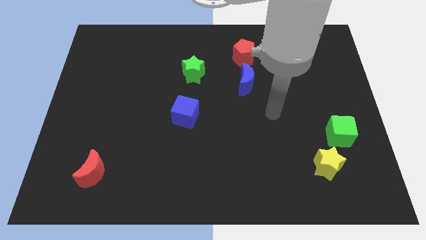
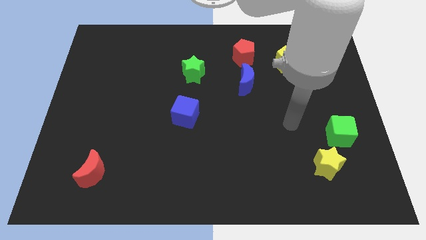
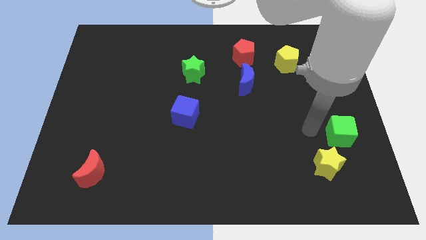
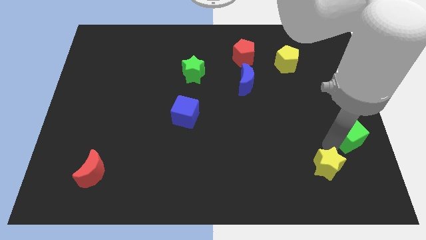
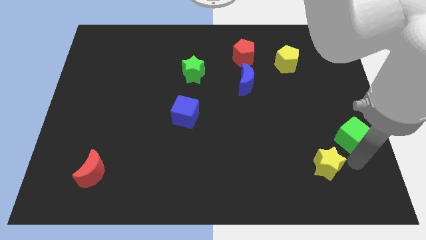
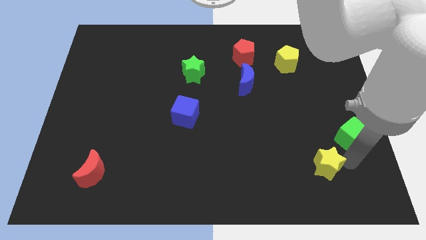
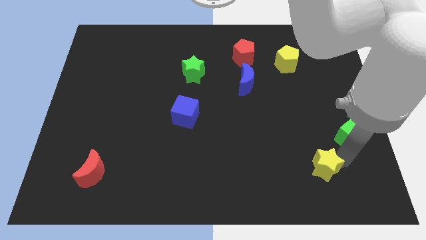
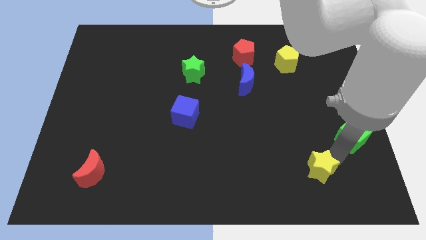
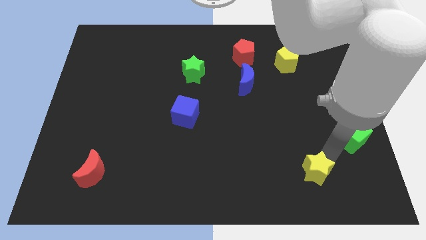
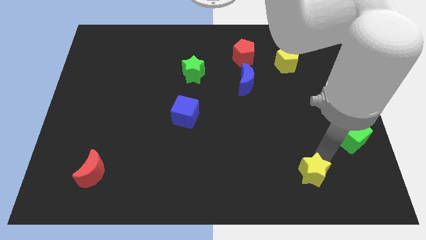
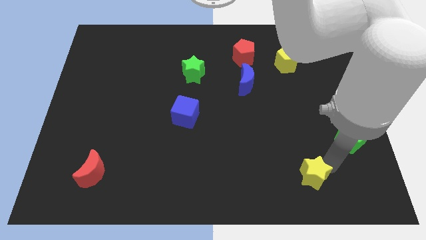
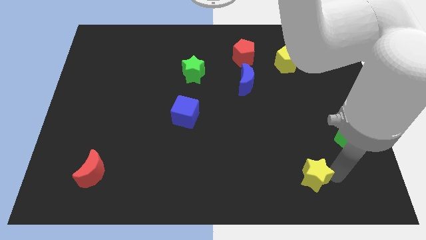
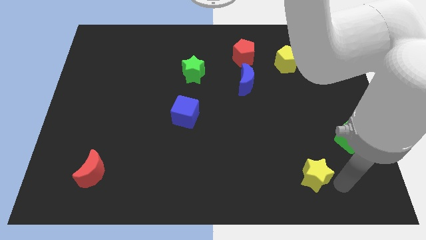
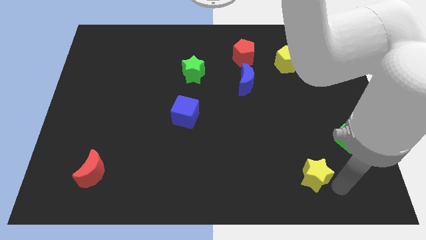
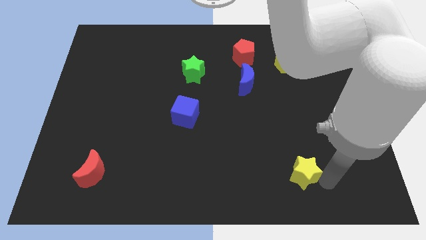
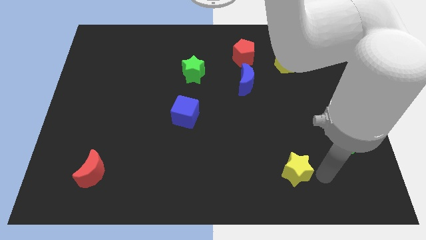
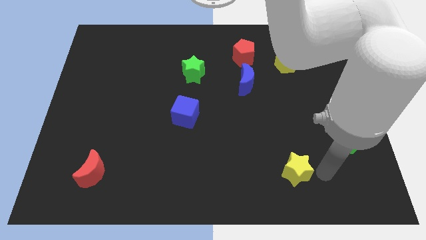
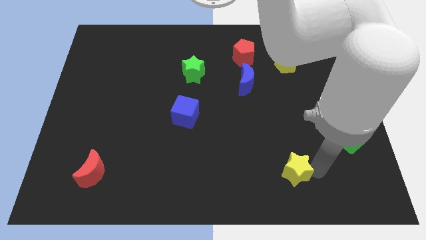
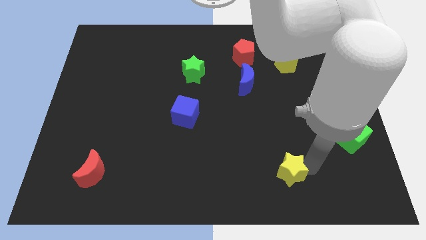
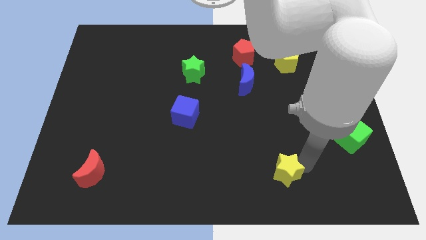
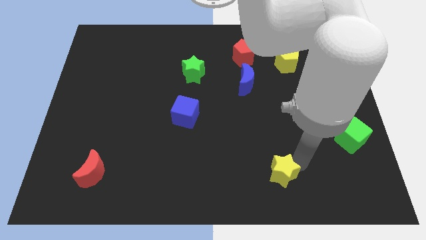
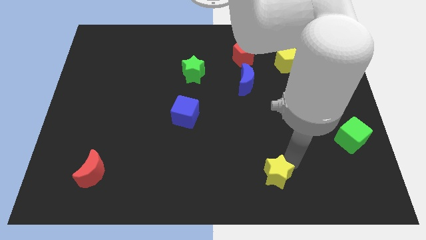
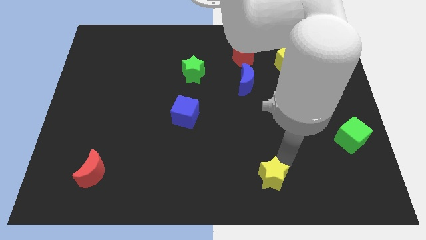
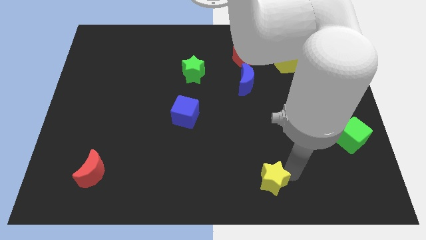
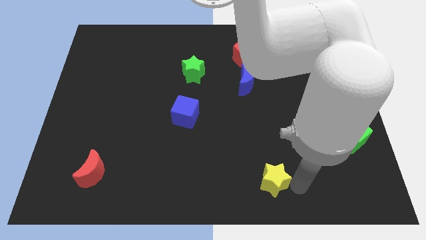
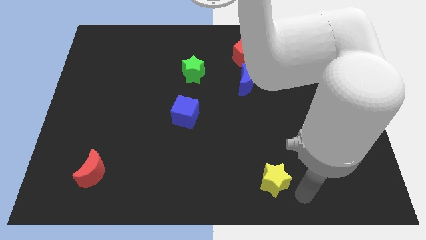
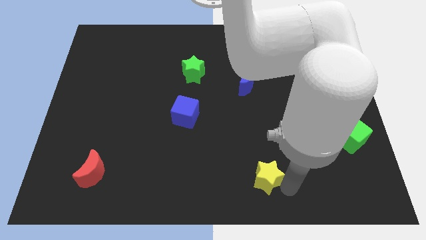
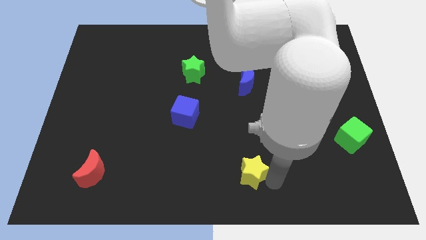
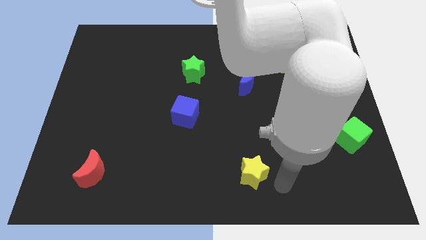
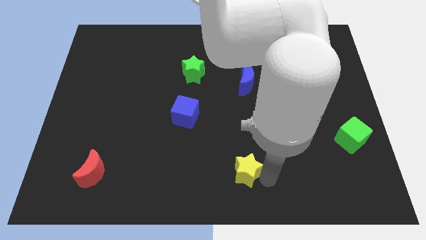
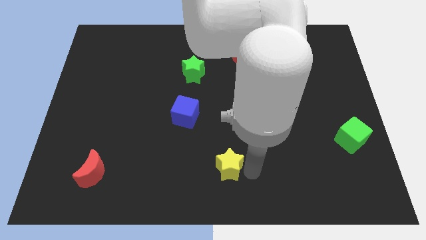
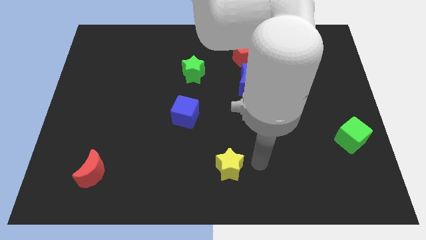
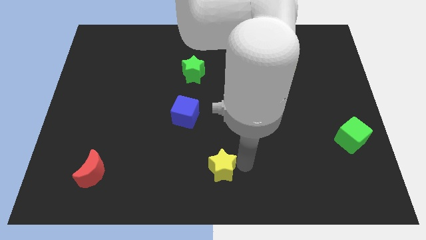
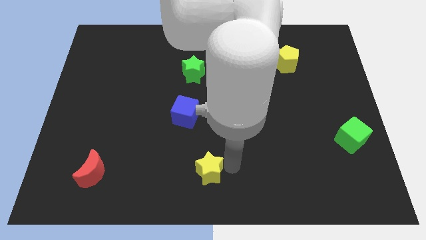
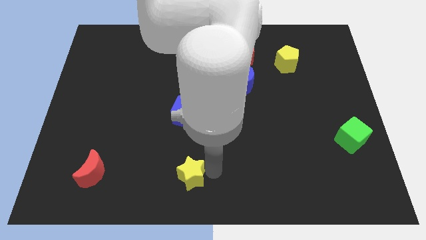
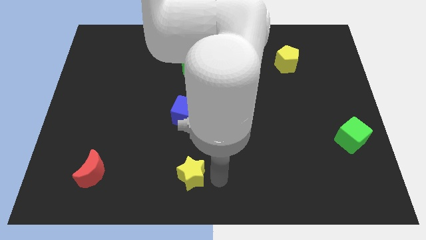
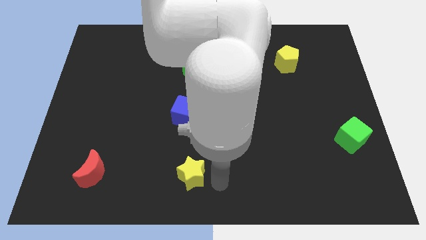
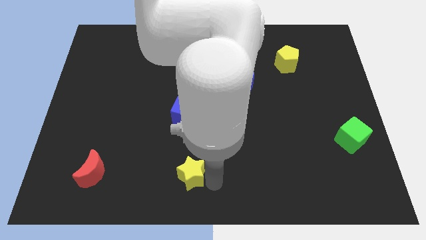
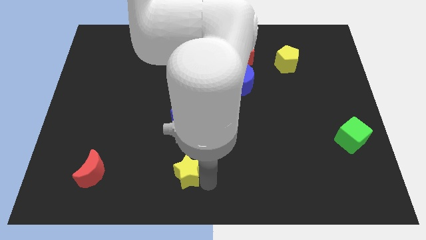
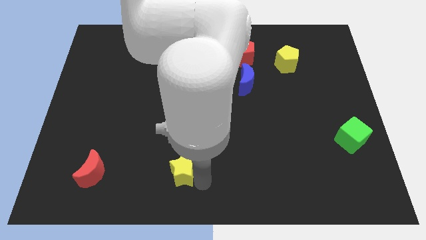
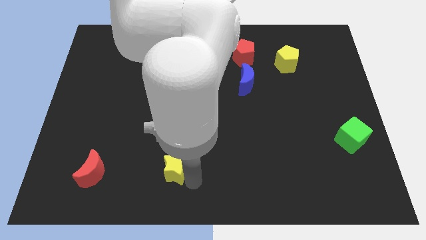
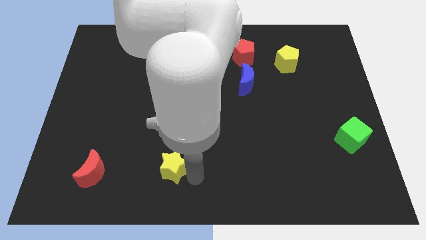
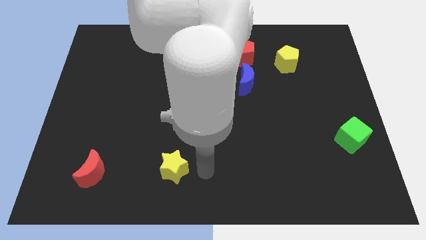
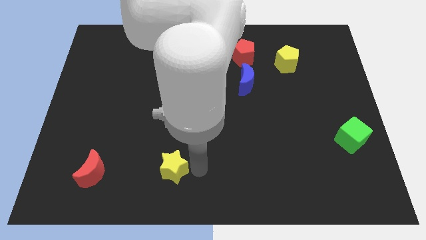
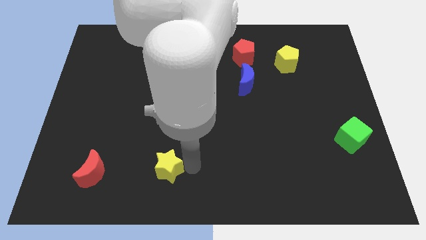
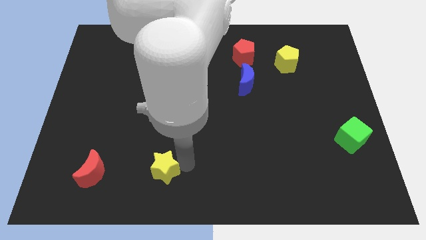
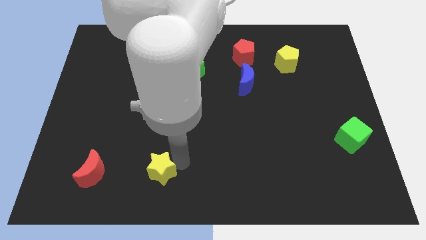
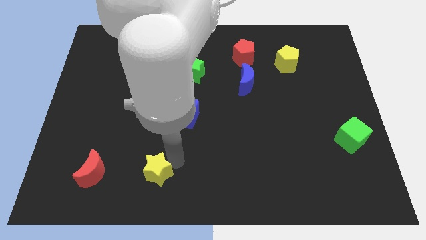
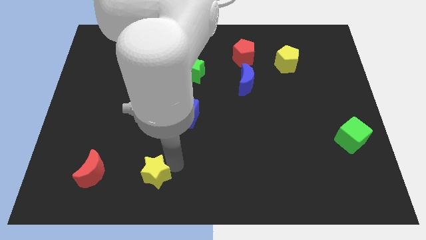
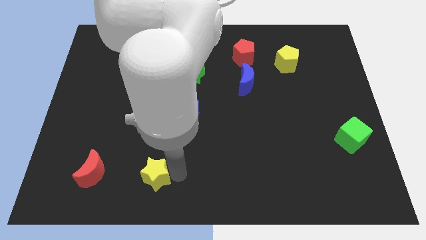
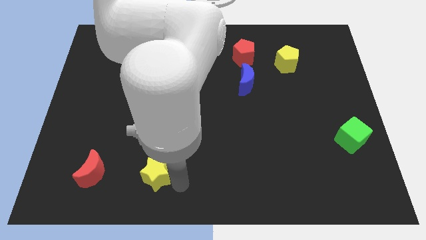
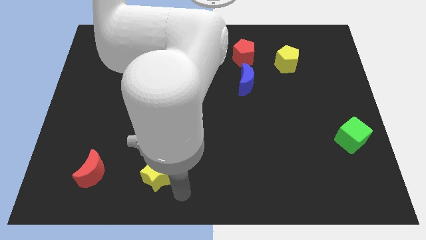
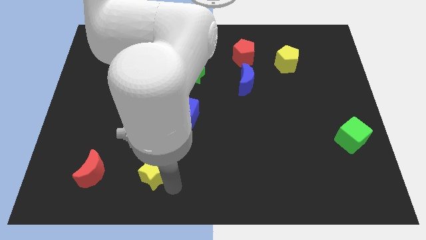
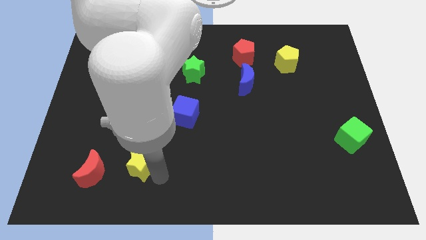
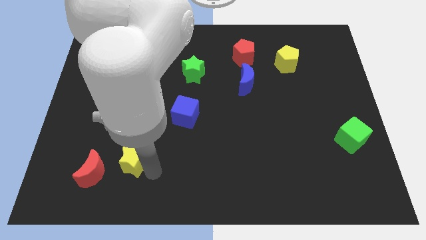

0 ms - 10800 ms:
push the yellow star to the top right of the red moon

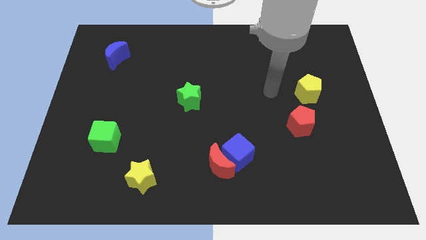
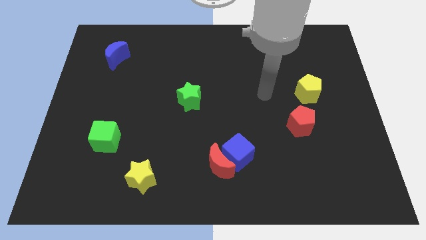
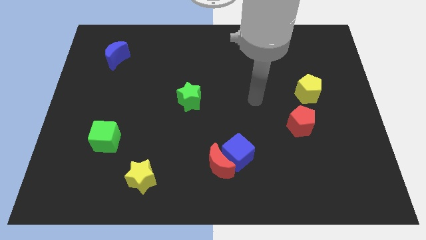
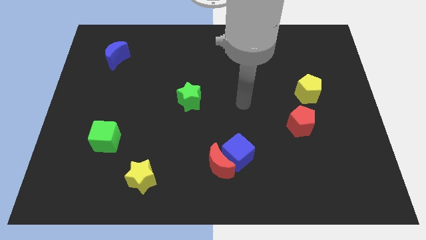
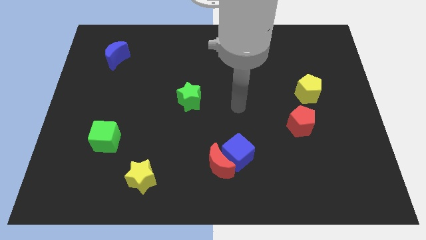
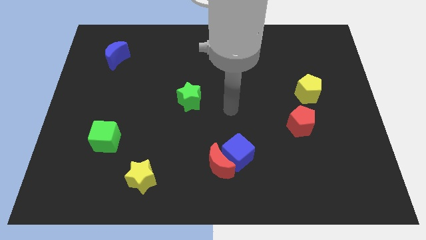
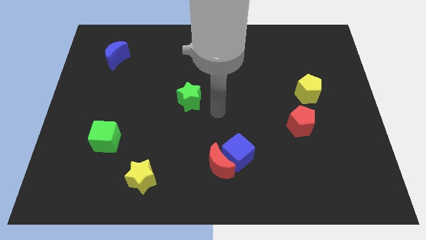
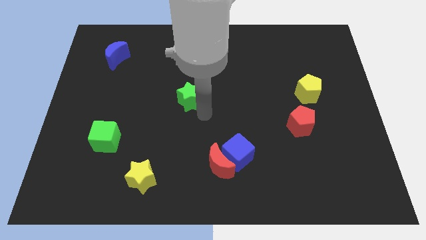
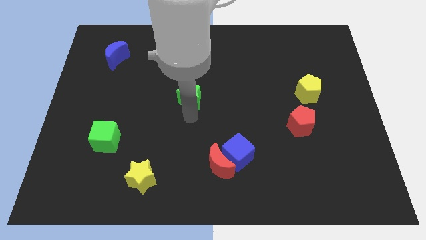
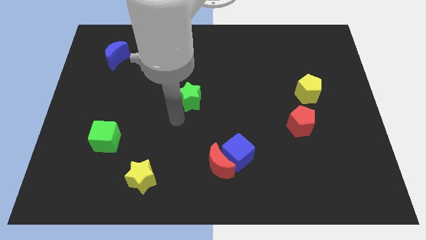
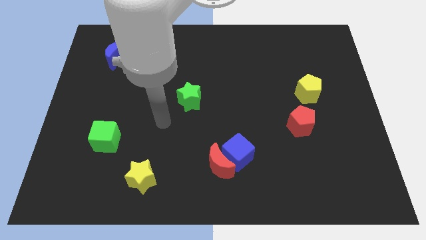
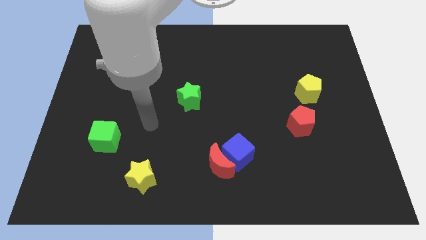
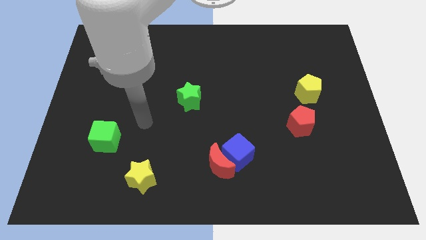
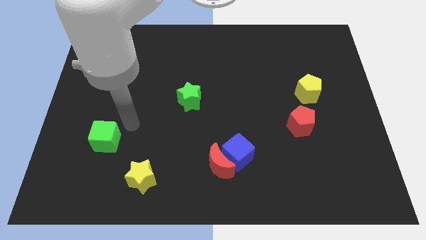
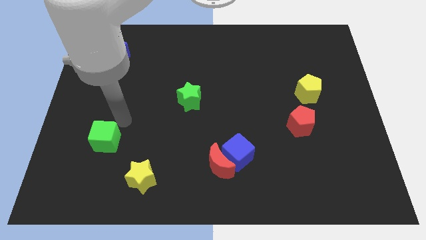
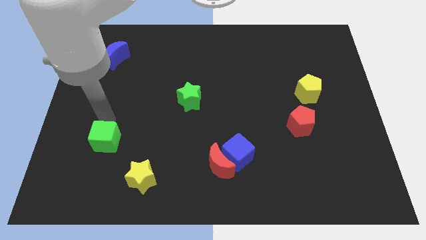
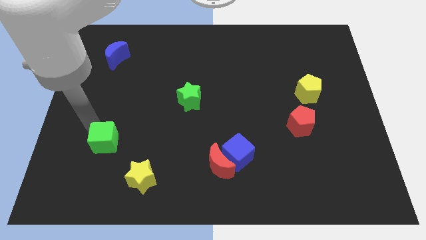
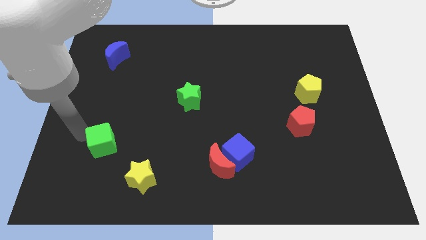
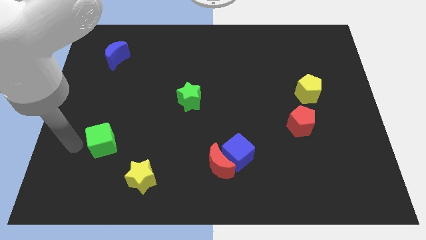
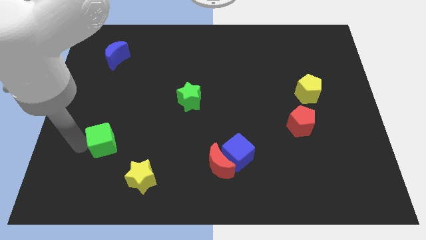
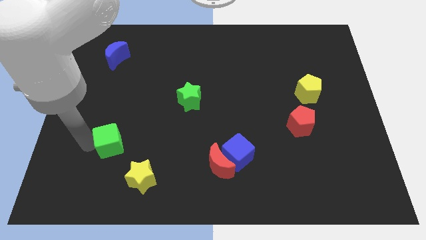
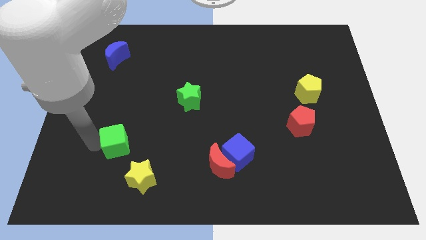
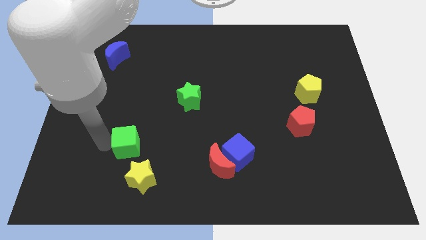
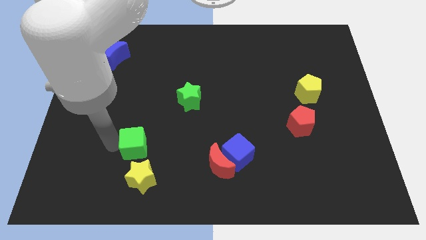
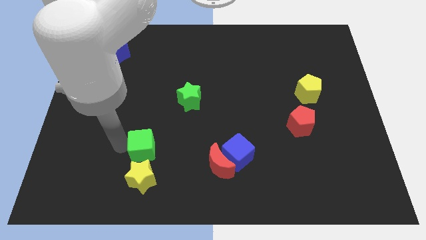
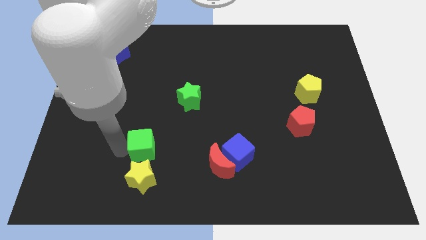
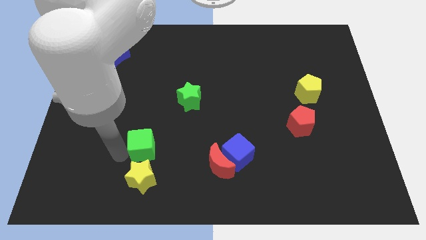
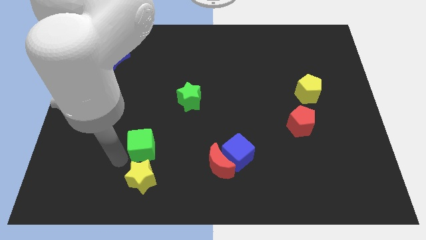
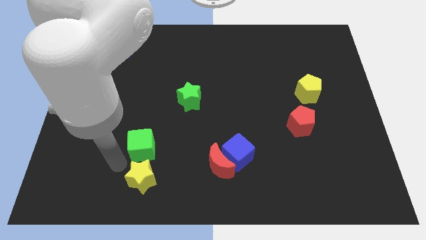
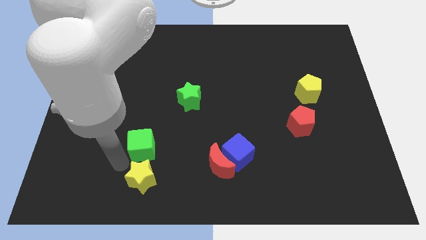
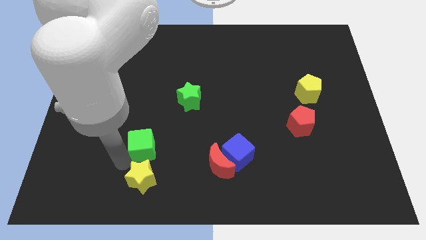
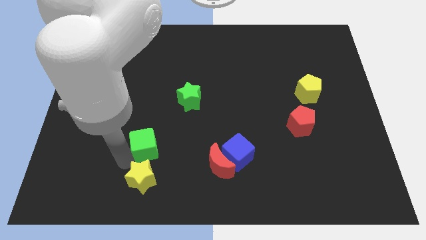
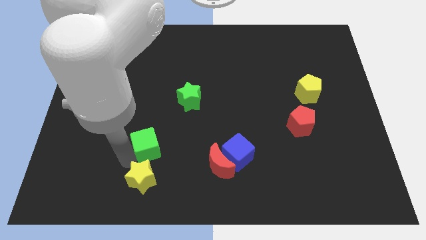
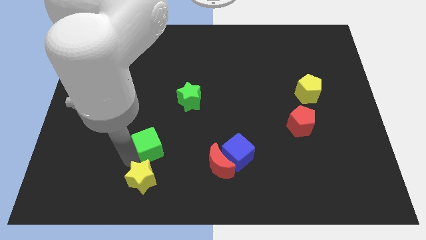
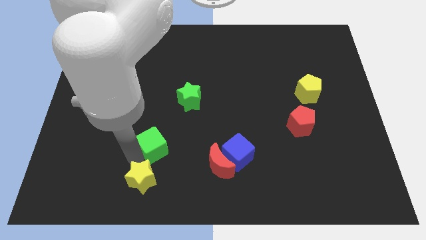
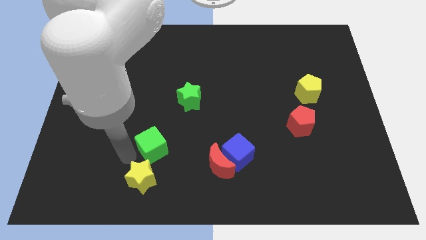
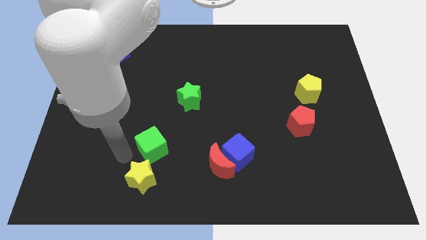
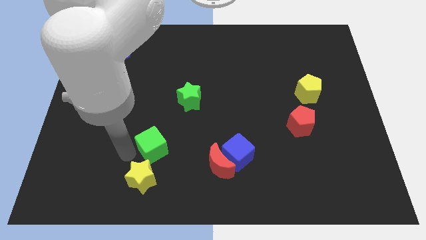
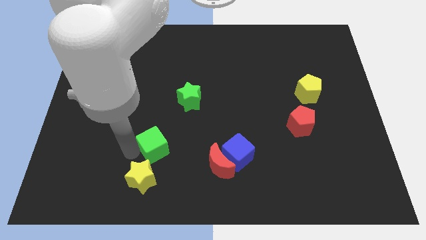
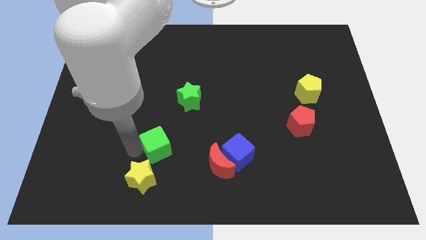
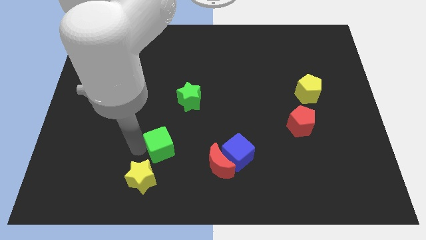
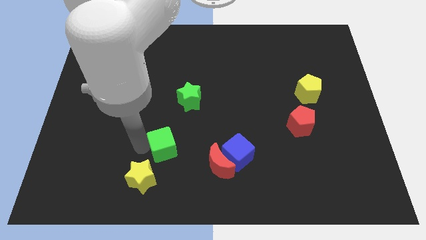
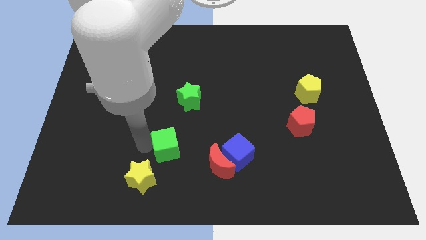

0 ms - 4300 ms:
push the green cube to the bottom of the green star
